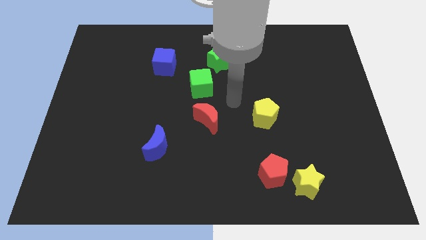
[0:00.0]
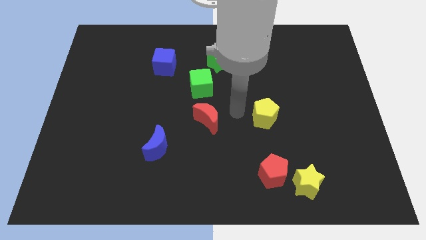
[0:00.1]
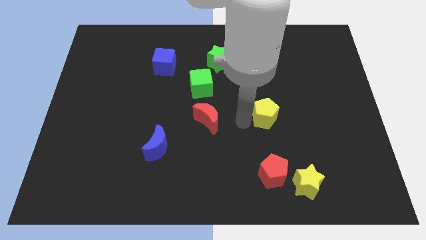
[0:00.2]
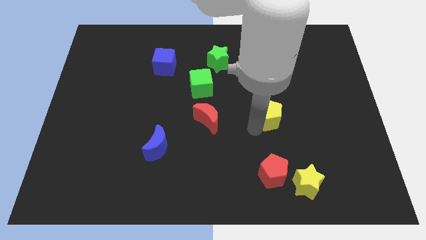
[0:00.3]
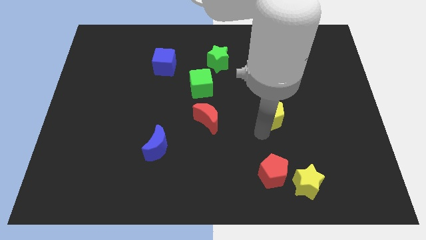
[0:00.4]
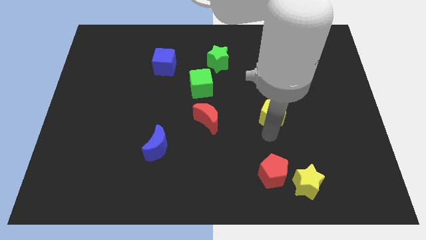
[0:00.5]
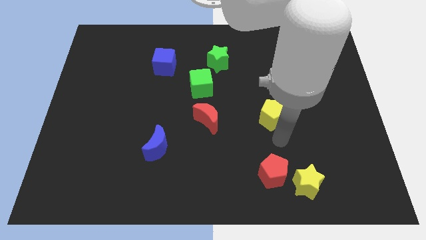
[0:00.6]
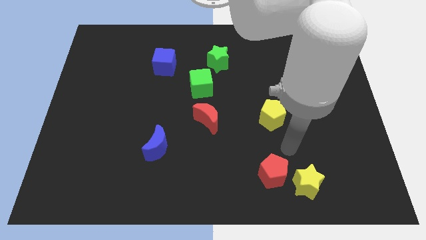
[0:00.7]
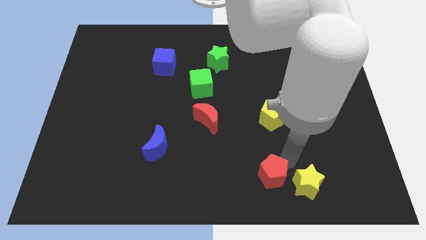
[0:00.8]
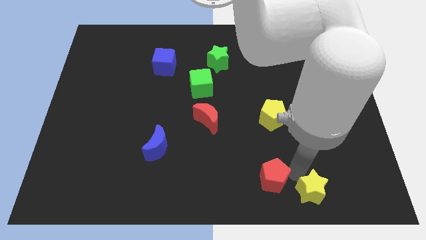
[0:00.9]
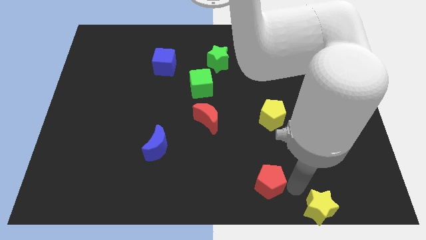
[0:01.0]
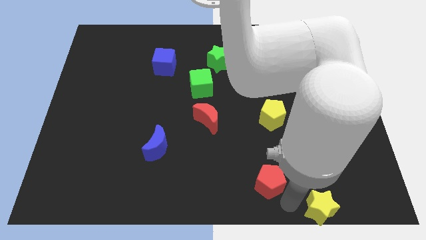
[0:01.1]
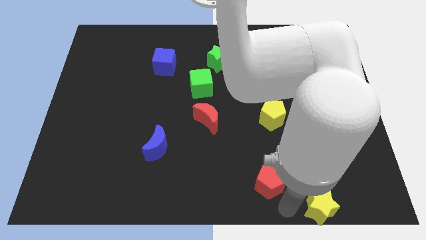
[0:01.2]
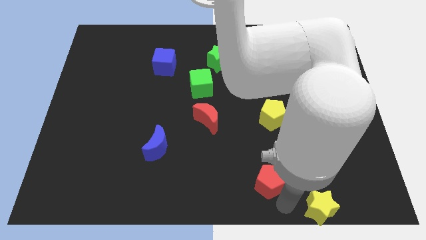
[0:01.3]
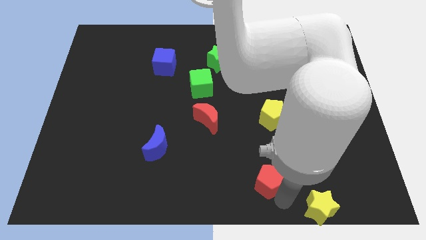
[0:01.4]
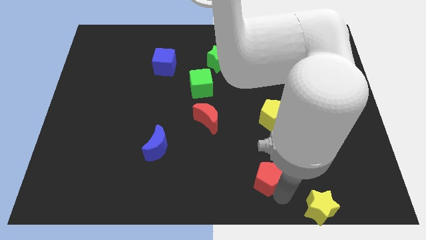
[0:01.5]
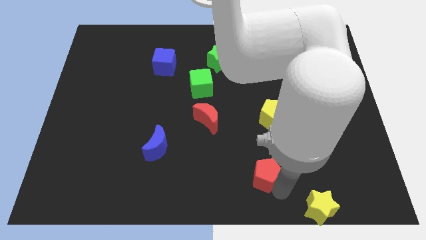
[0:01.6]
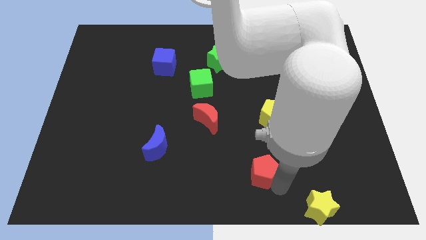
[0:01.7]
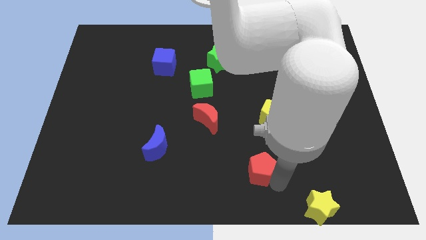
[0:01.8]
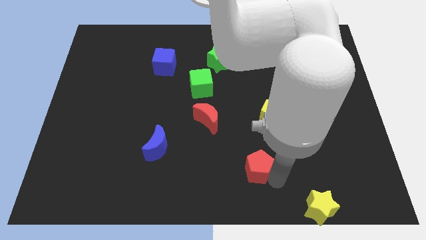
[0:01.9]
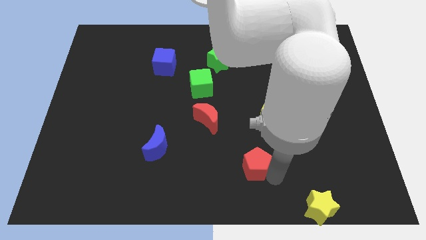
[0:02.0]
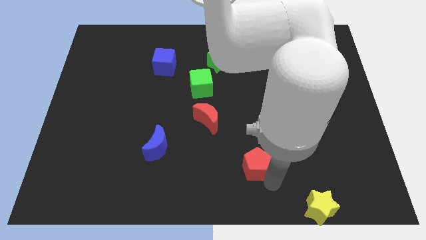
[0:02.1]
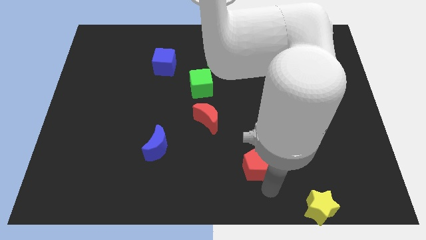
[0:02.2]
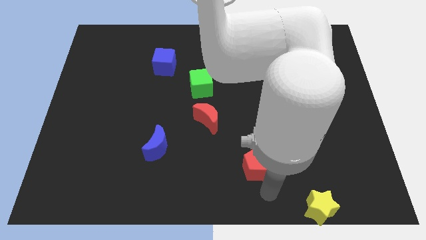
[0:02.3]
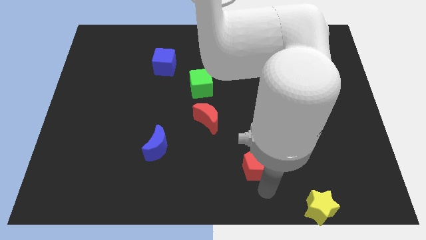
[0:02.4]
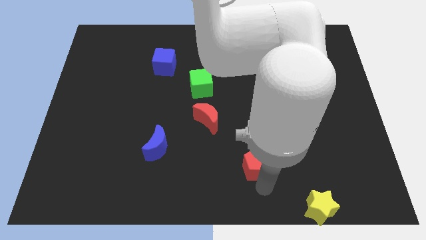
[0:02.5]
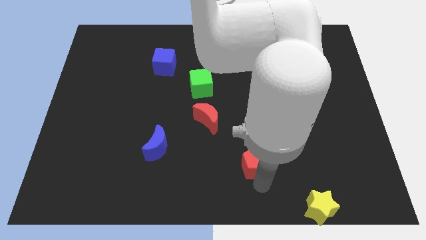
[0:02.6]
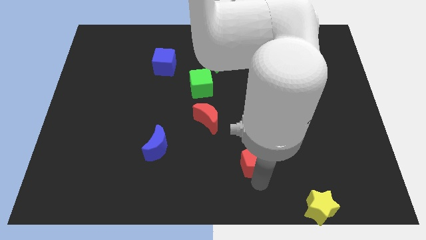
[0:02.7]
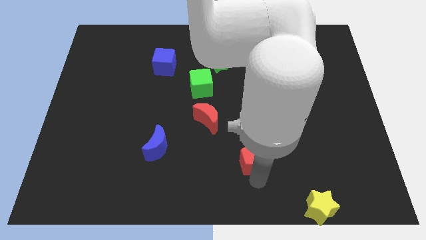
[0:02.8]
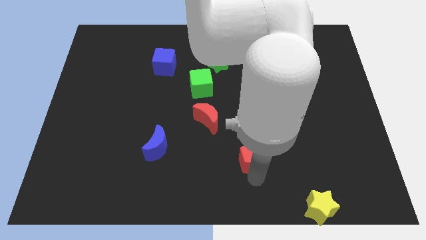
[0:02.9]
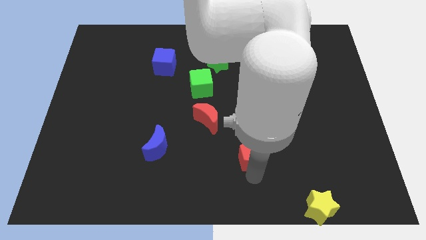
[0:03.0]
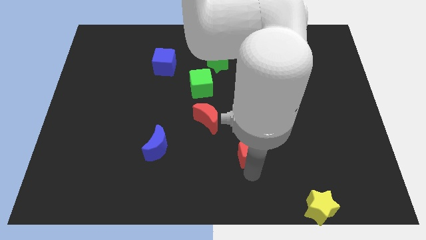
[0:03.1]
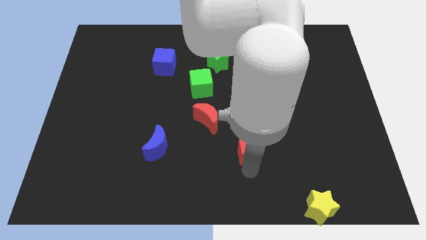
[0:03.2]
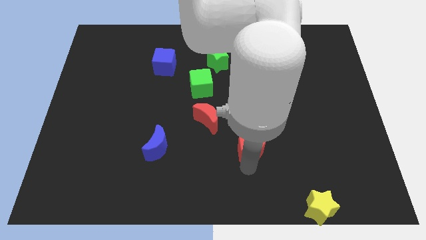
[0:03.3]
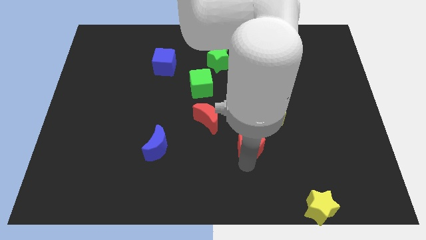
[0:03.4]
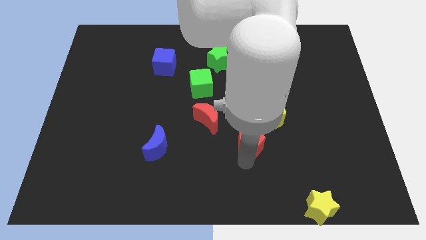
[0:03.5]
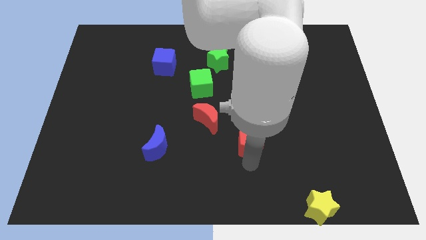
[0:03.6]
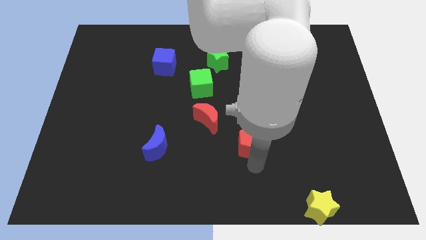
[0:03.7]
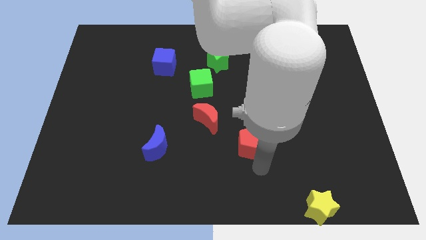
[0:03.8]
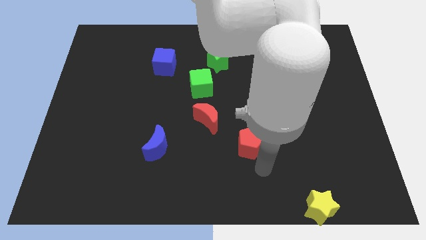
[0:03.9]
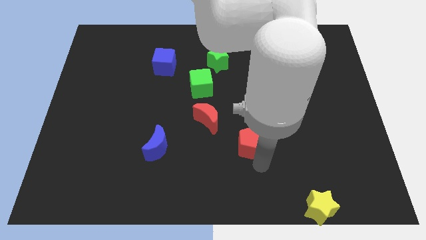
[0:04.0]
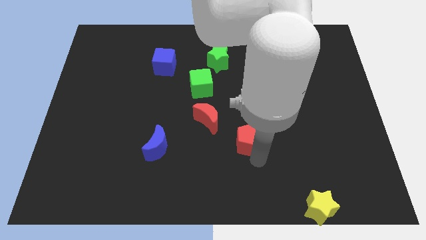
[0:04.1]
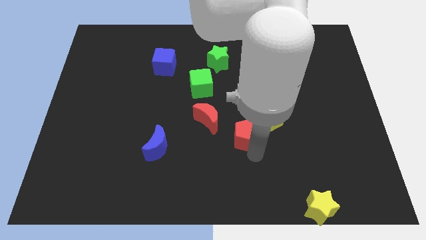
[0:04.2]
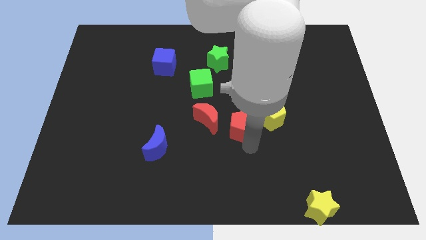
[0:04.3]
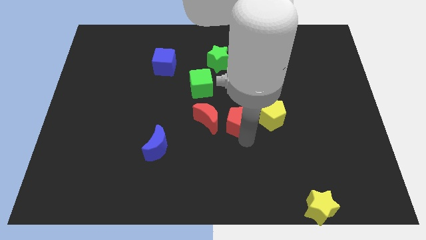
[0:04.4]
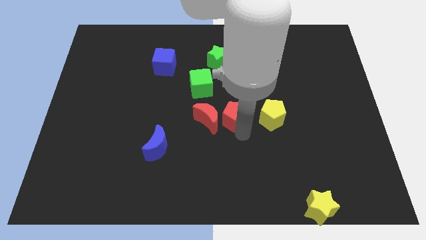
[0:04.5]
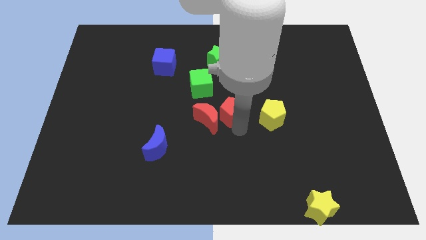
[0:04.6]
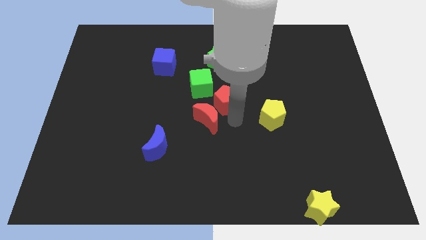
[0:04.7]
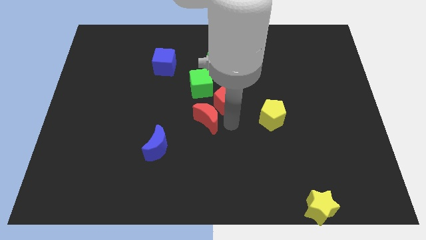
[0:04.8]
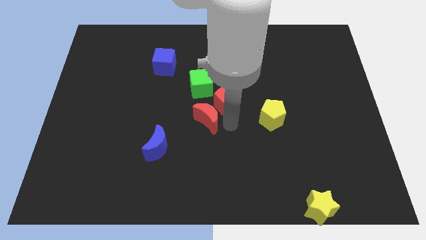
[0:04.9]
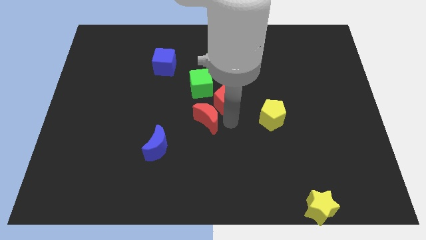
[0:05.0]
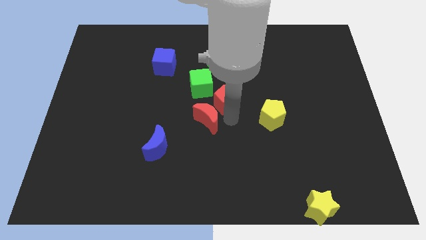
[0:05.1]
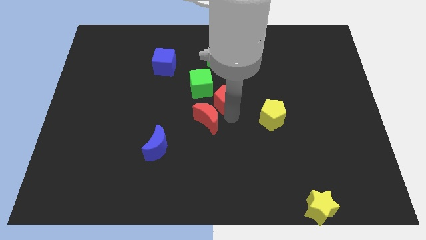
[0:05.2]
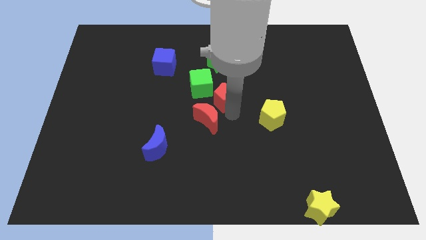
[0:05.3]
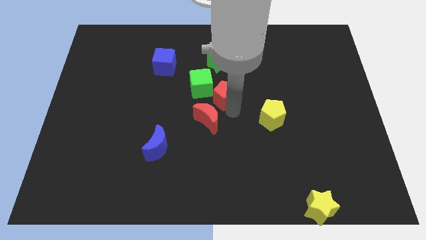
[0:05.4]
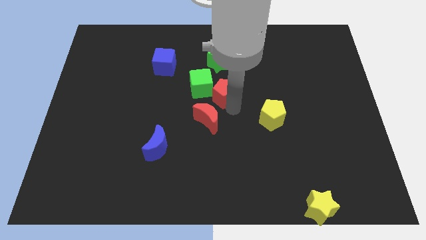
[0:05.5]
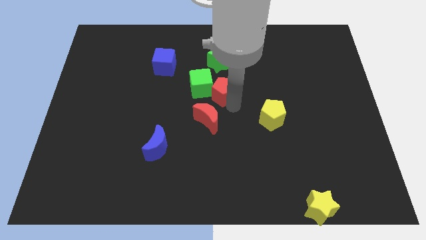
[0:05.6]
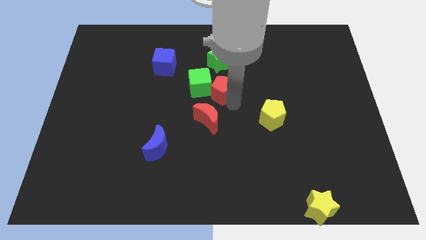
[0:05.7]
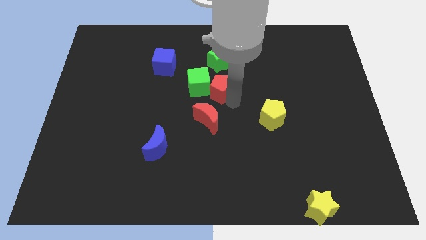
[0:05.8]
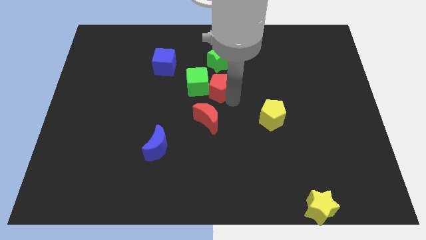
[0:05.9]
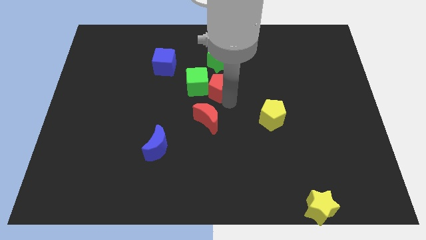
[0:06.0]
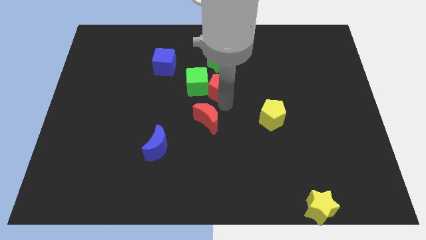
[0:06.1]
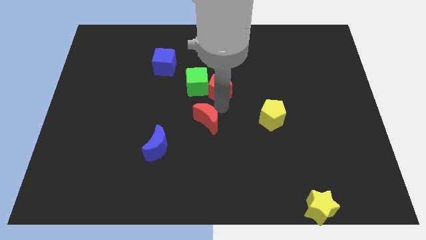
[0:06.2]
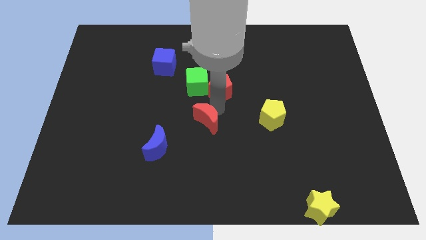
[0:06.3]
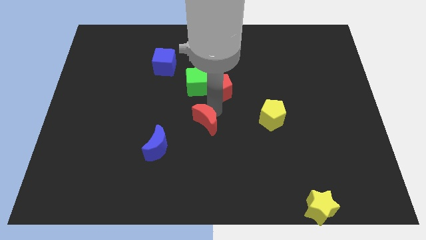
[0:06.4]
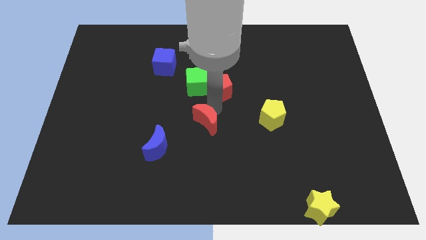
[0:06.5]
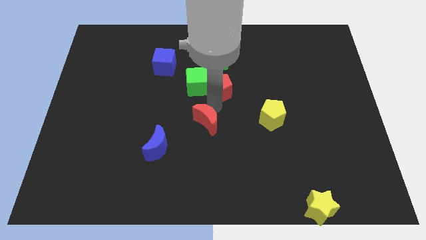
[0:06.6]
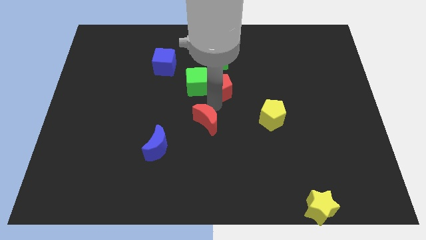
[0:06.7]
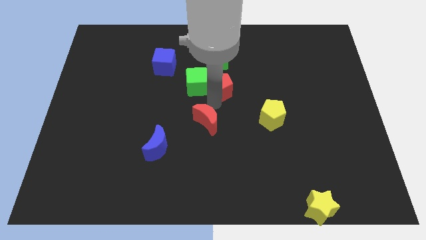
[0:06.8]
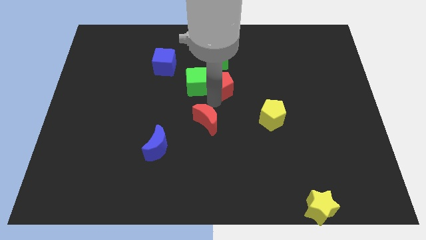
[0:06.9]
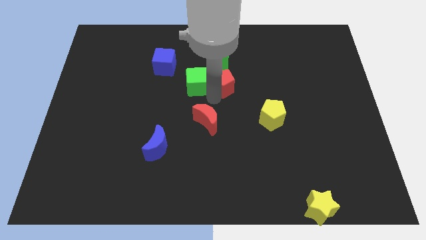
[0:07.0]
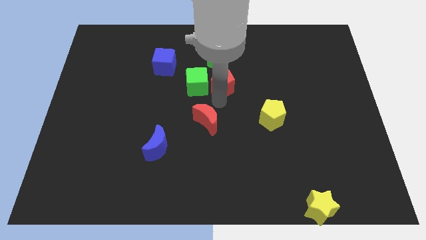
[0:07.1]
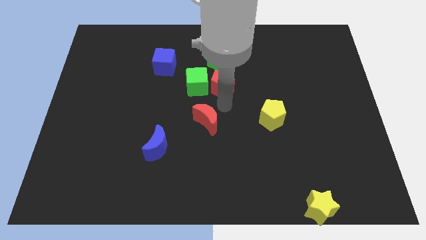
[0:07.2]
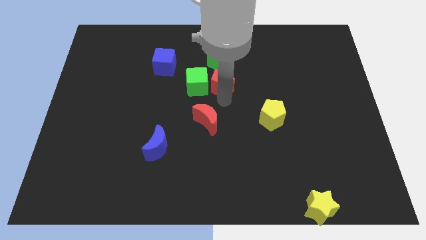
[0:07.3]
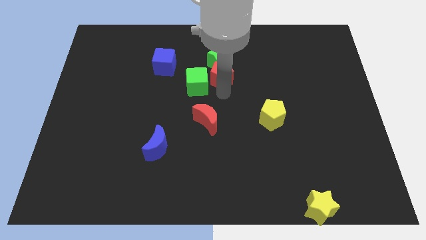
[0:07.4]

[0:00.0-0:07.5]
put the red pentagon towards the green star

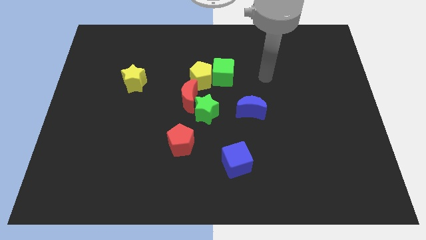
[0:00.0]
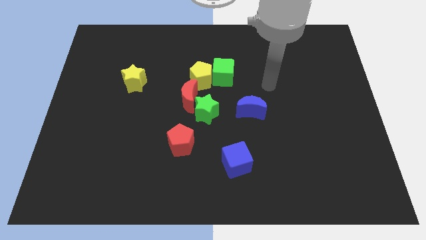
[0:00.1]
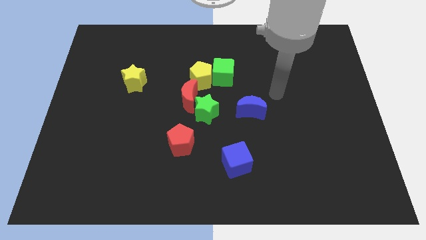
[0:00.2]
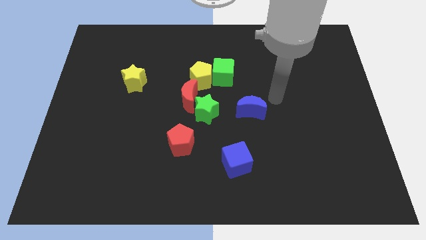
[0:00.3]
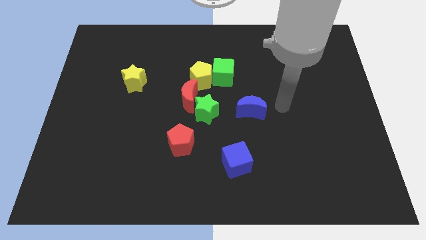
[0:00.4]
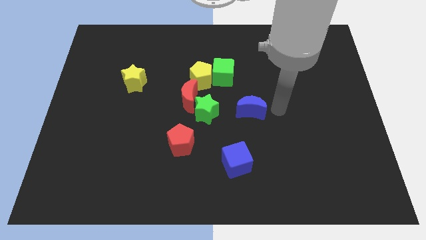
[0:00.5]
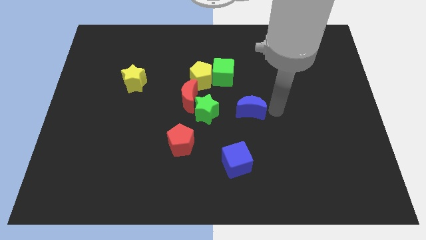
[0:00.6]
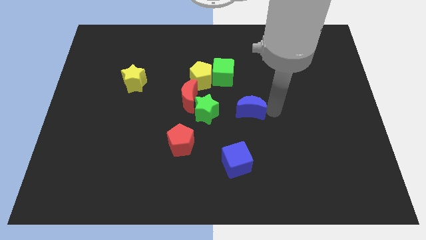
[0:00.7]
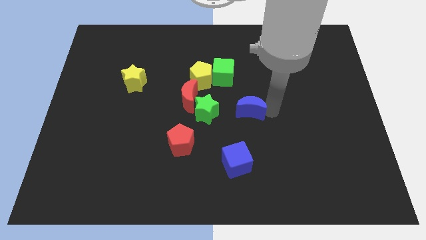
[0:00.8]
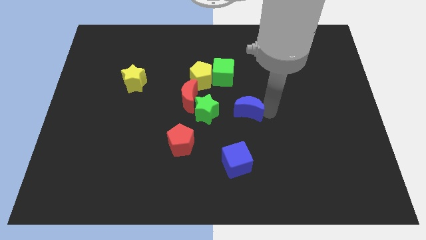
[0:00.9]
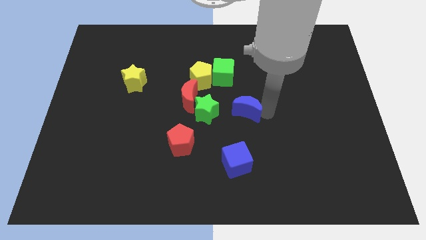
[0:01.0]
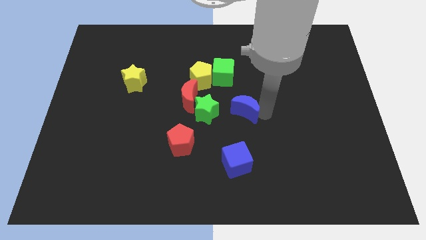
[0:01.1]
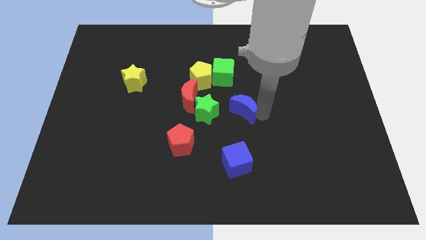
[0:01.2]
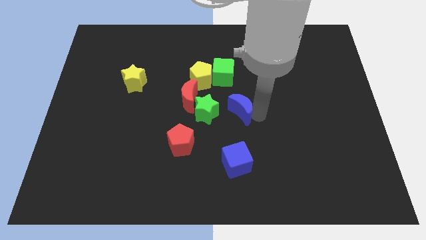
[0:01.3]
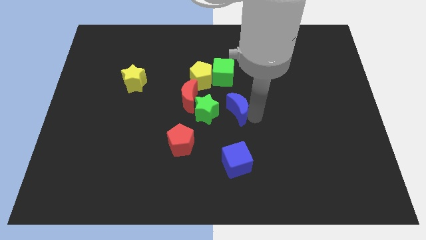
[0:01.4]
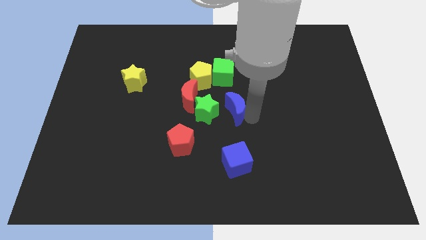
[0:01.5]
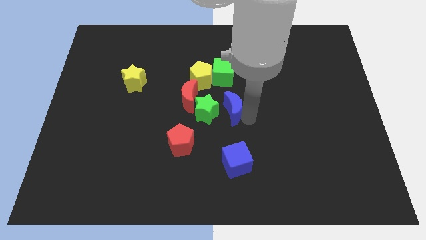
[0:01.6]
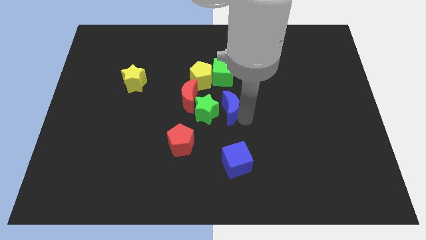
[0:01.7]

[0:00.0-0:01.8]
push the blue moon to the green star
